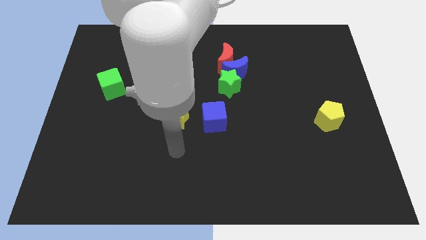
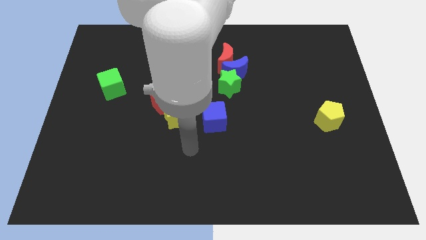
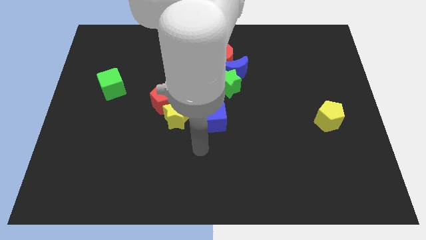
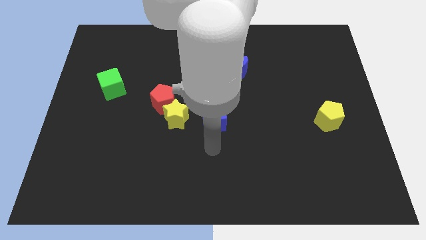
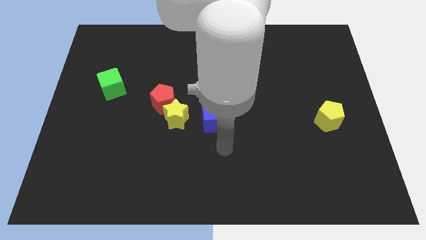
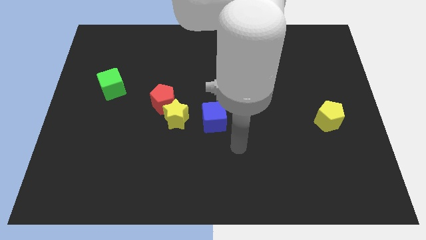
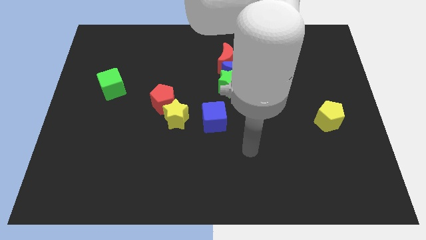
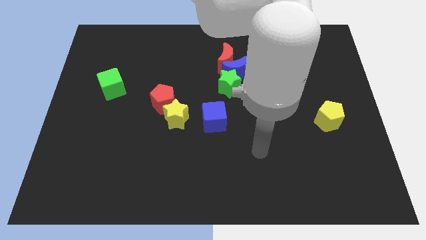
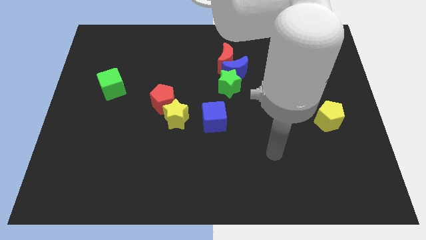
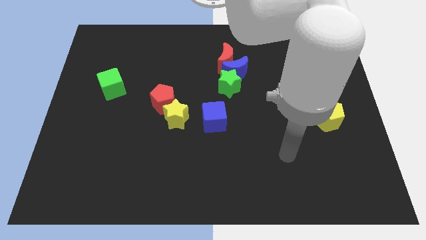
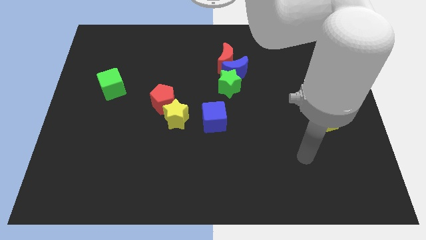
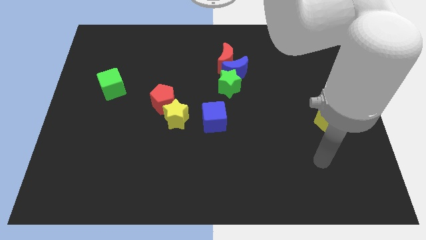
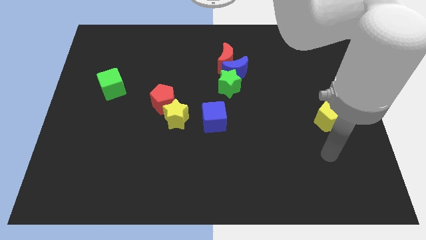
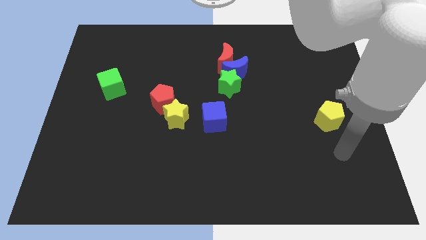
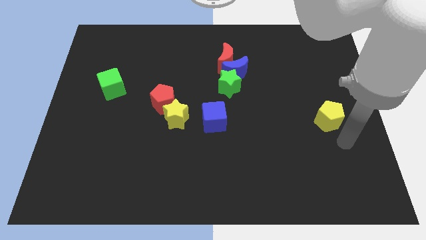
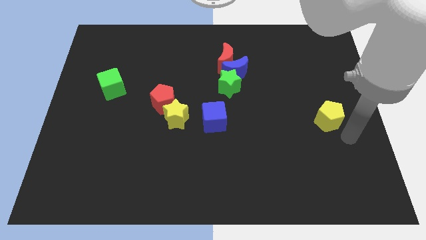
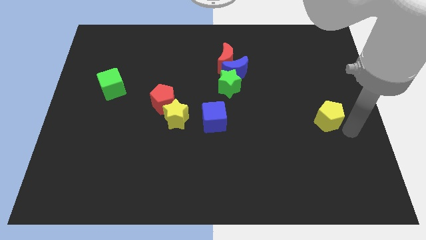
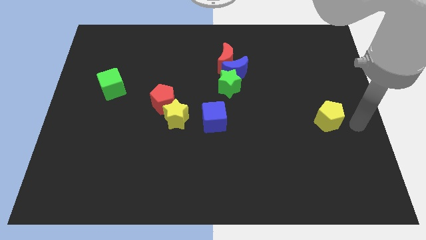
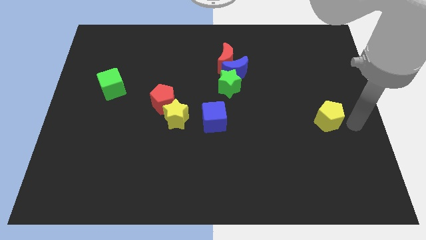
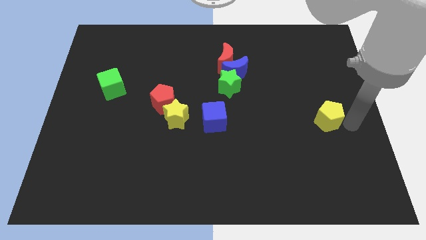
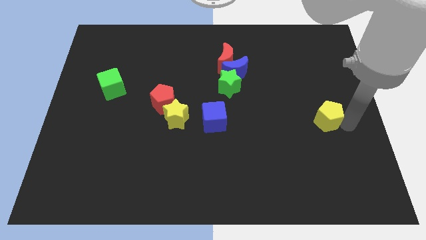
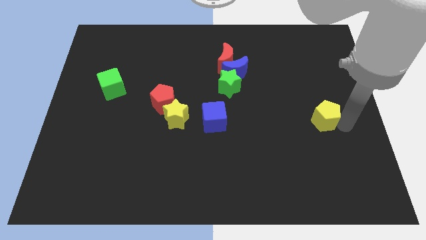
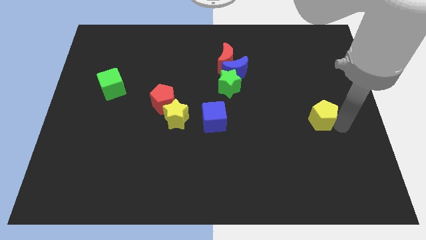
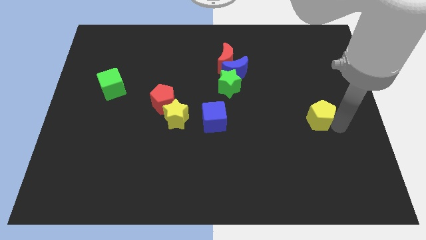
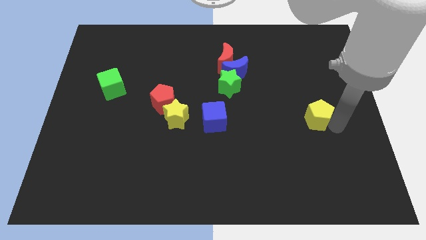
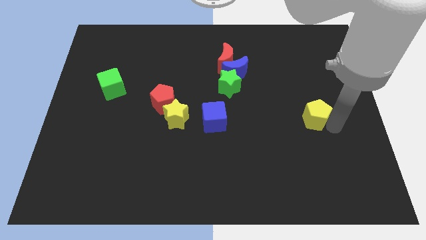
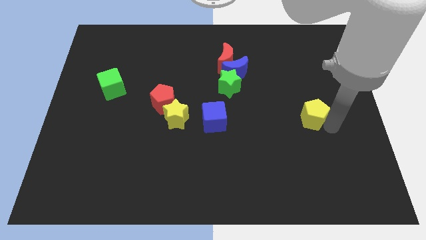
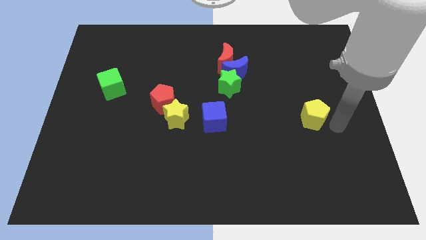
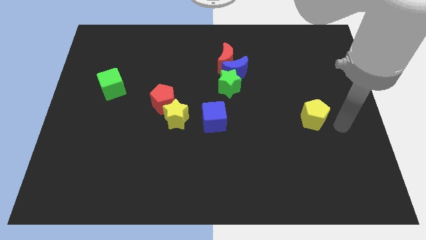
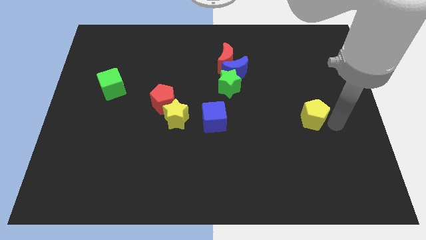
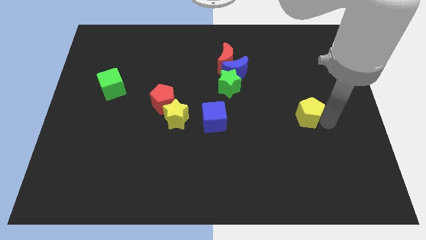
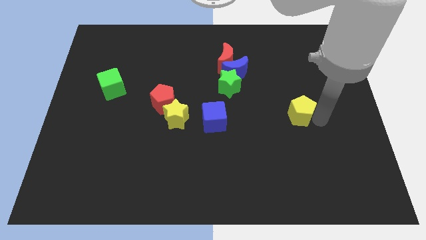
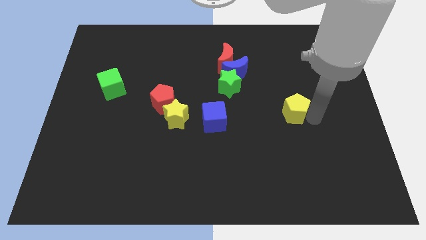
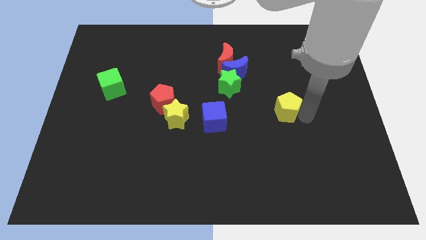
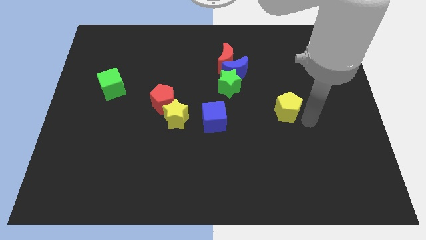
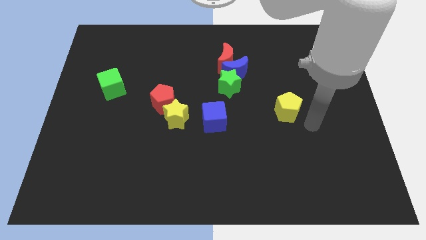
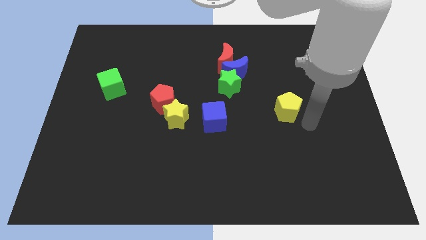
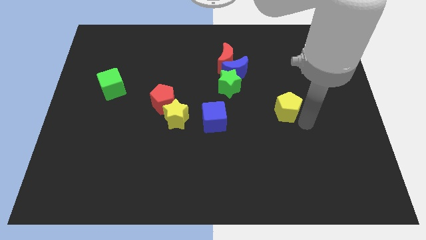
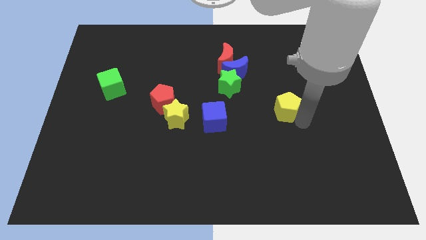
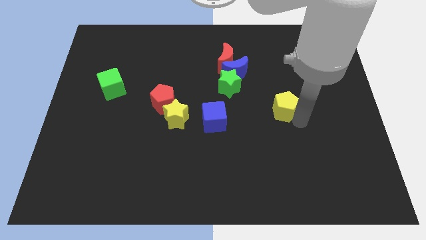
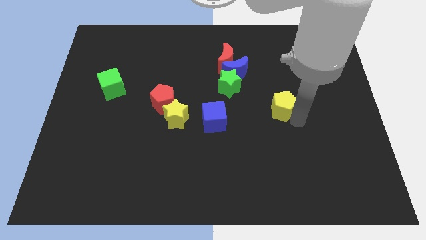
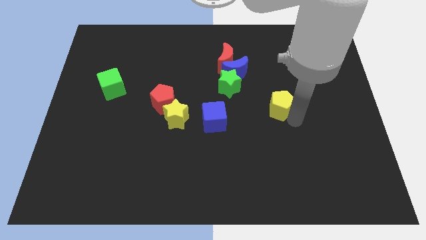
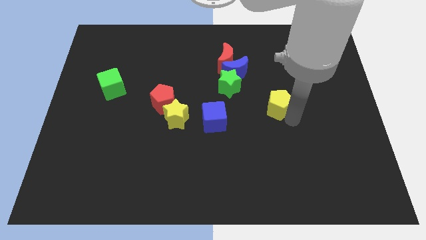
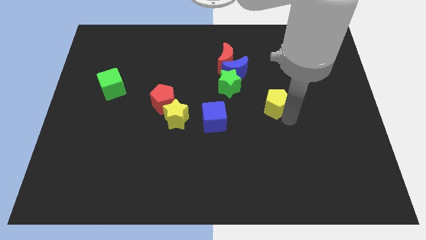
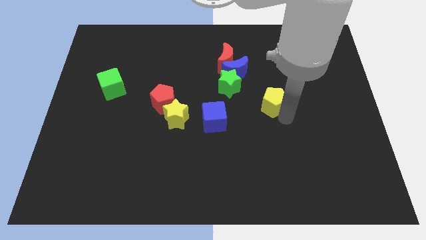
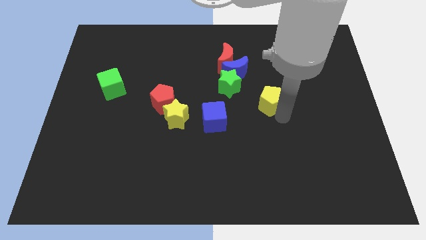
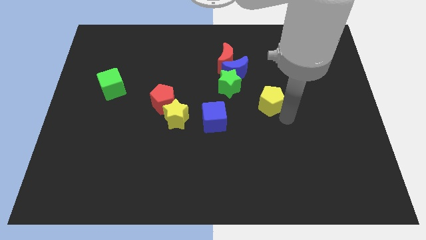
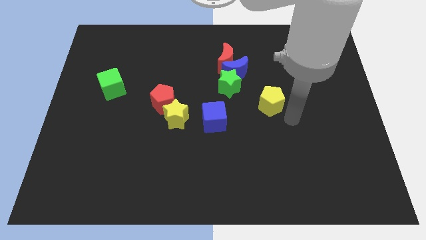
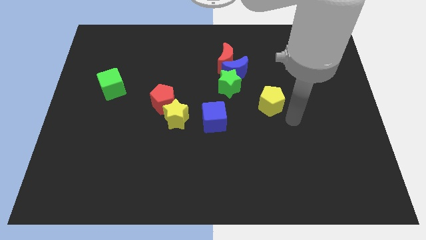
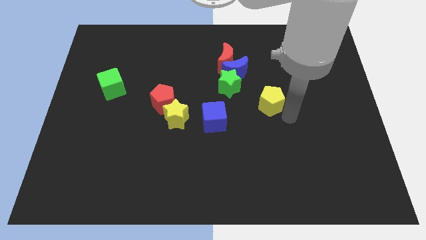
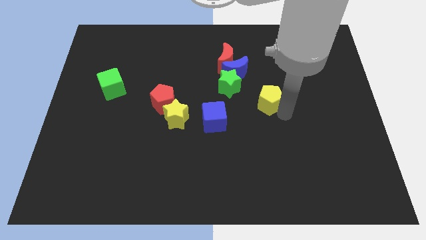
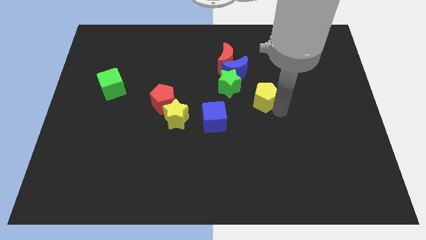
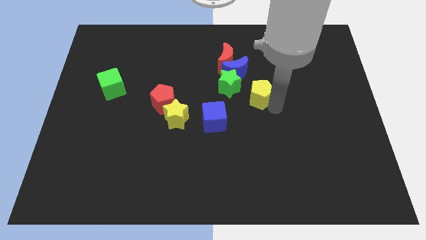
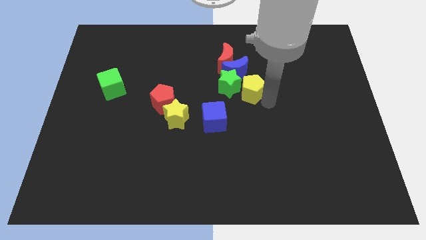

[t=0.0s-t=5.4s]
push the yellow pentagon to the green star

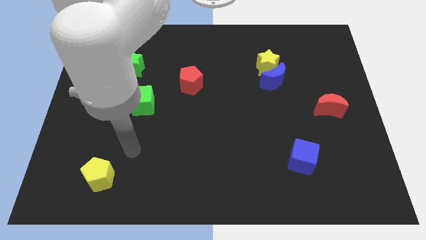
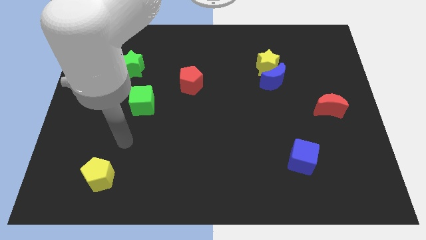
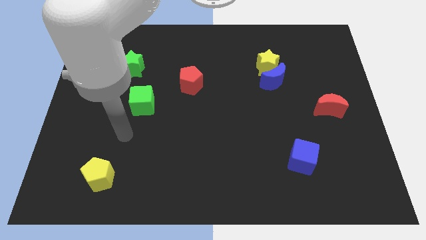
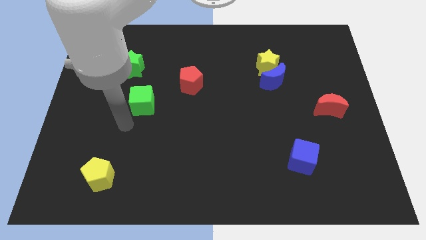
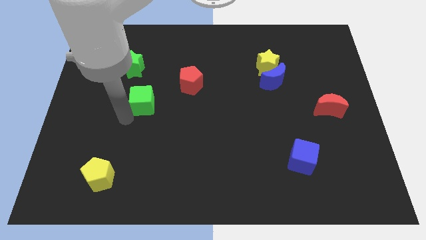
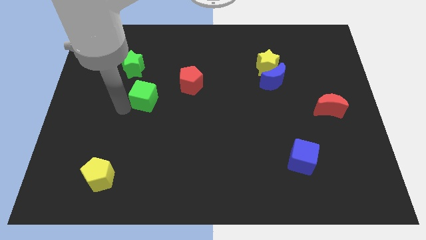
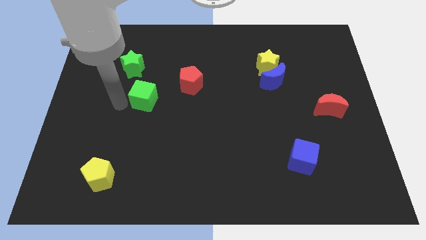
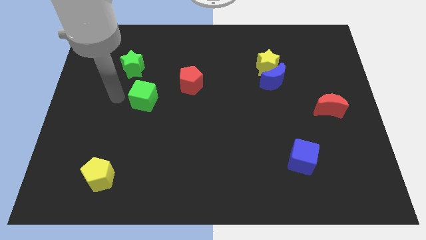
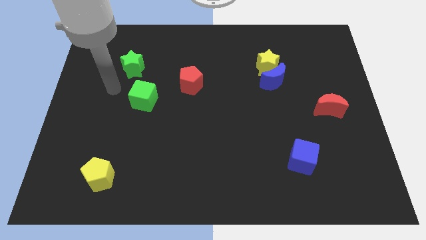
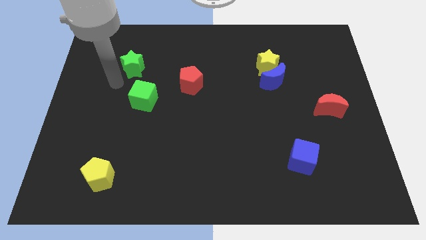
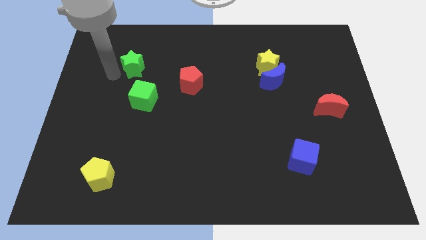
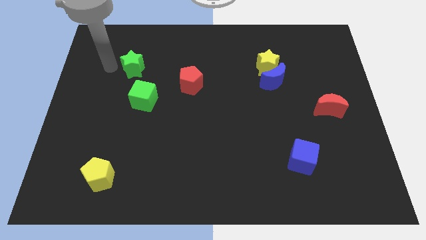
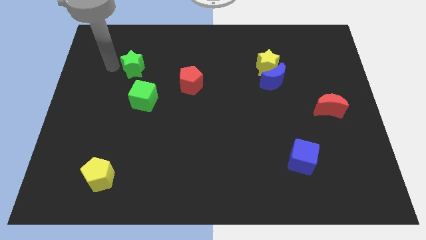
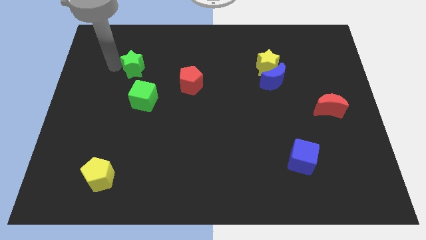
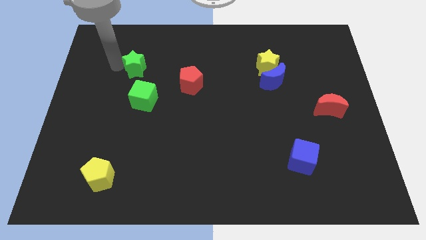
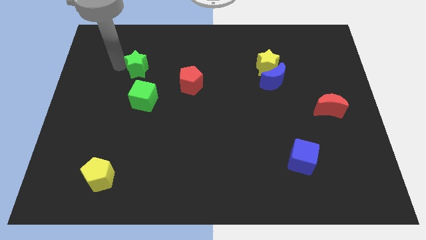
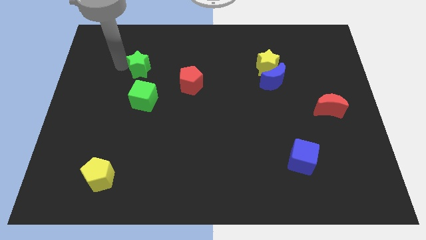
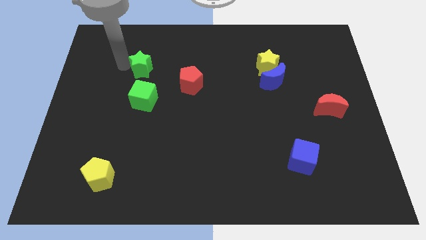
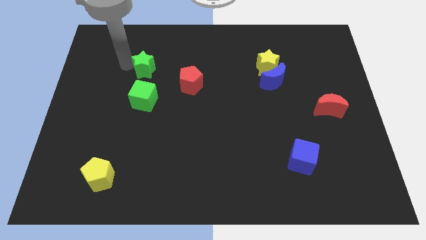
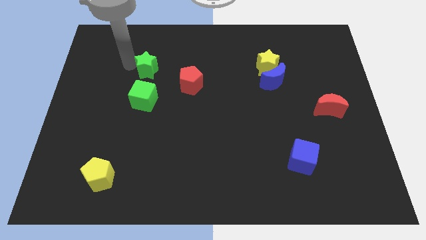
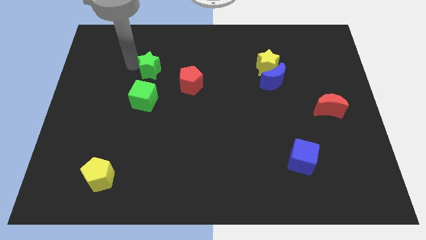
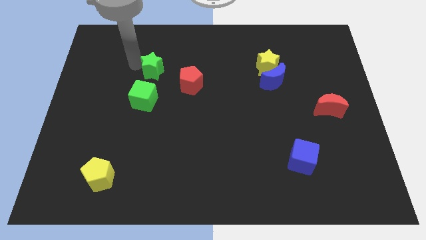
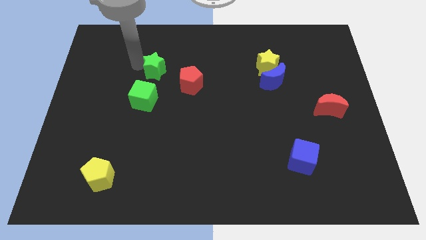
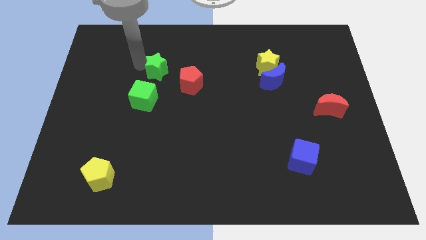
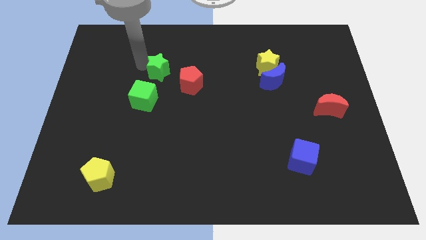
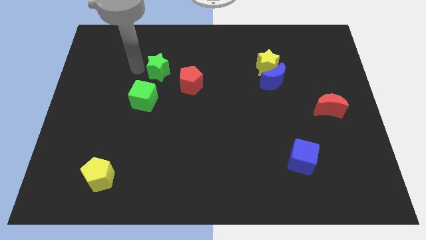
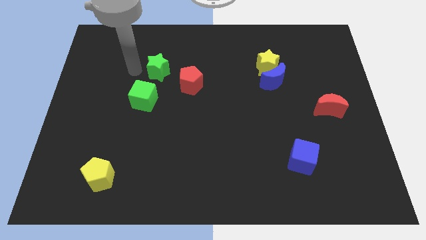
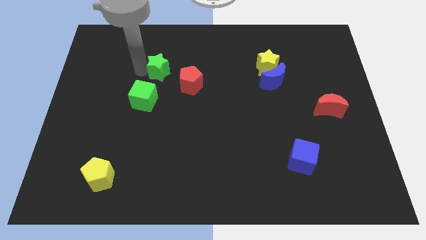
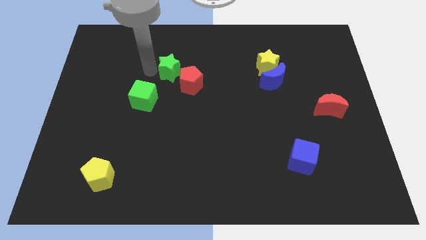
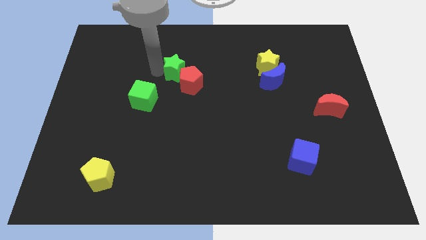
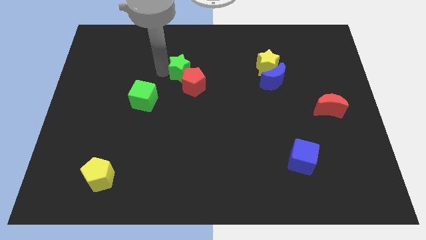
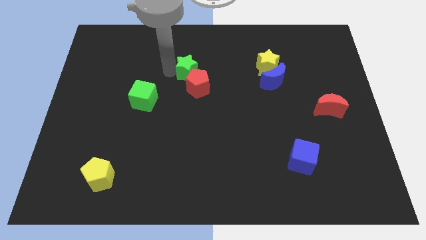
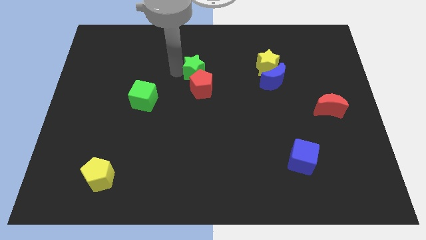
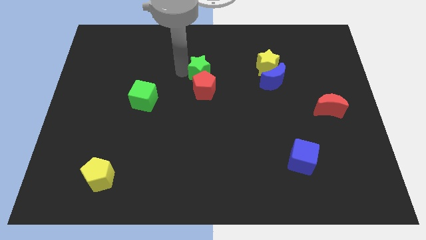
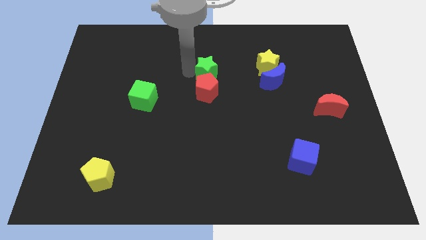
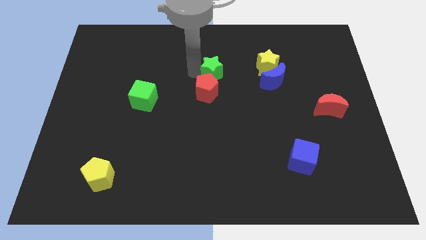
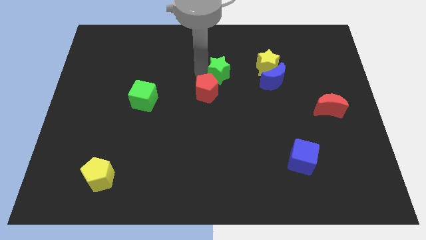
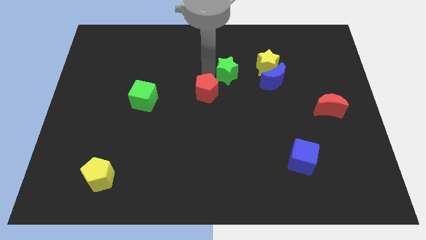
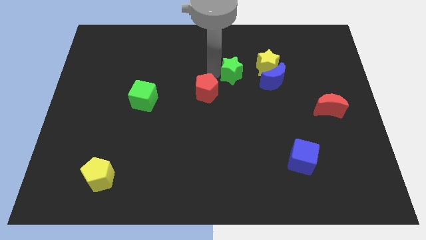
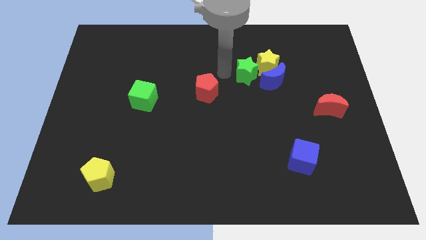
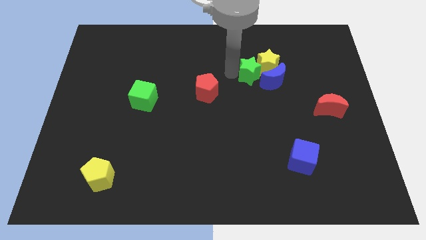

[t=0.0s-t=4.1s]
slide the green star close to the blue moon
